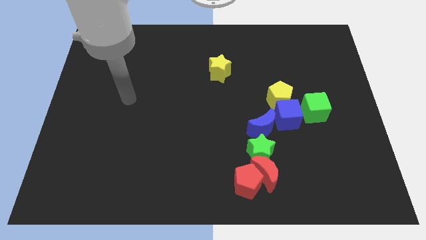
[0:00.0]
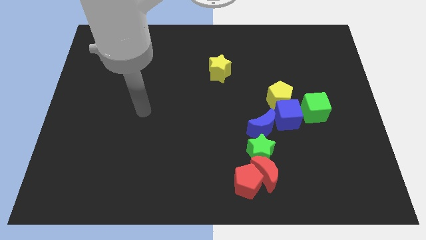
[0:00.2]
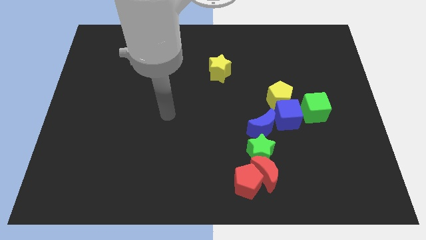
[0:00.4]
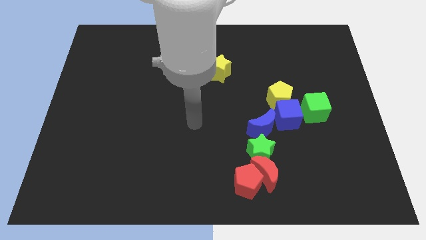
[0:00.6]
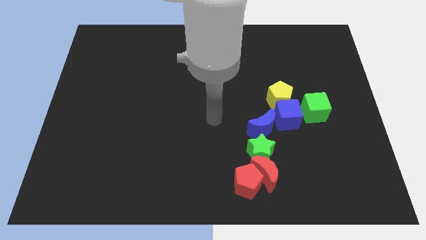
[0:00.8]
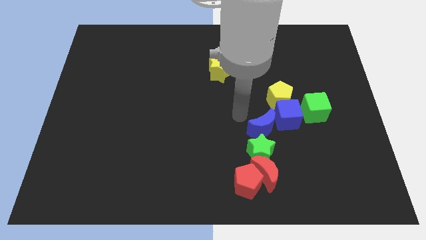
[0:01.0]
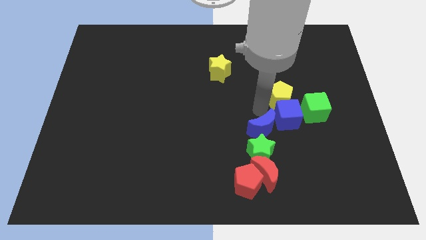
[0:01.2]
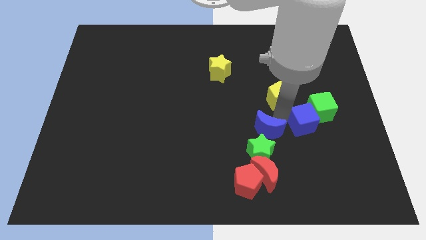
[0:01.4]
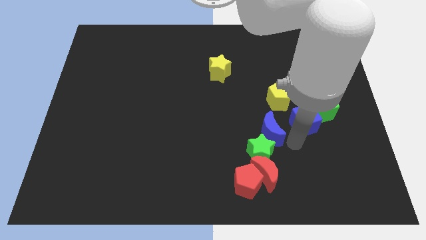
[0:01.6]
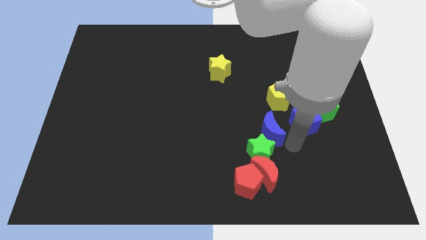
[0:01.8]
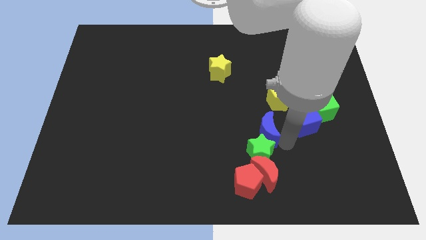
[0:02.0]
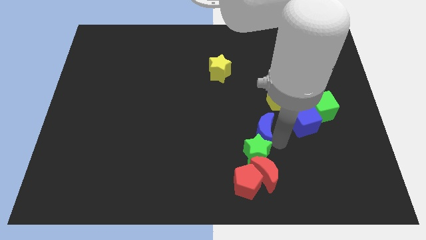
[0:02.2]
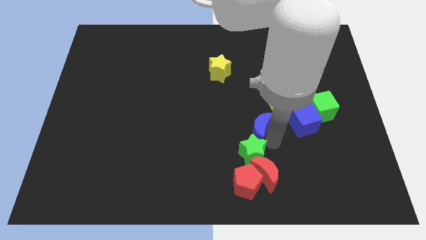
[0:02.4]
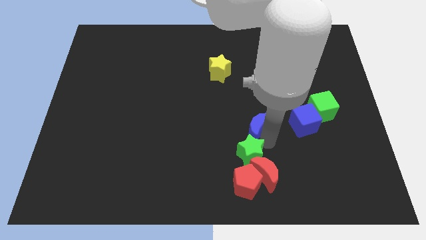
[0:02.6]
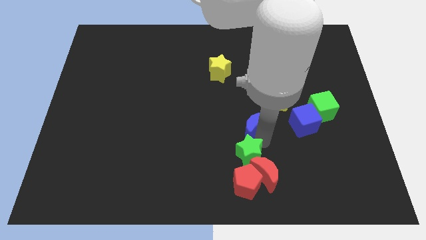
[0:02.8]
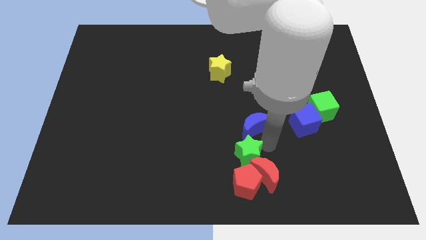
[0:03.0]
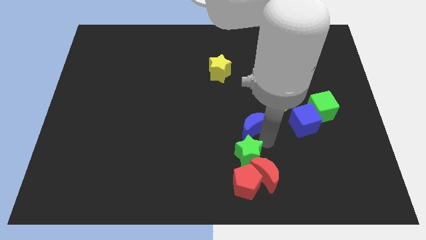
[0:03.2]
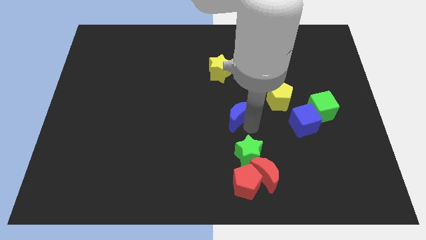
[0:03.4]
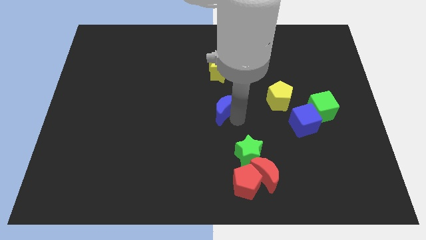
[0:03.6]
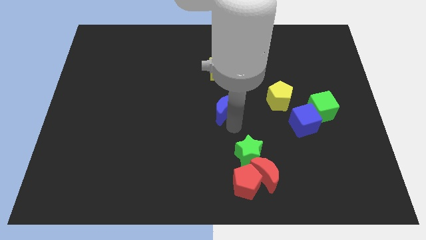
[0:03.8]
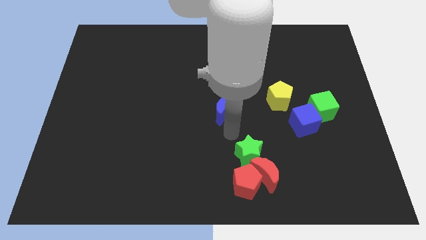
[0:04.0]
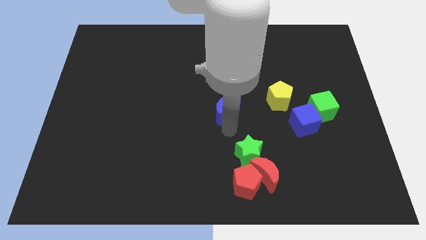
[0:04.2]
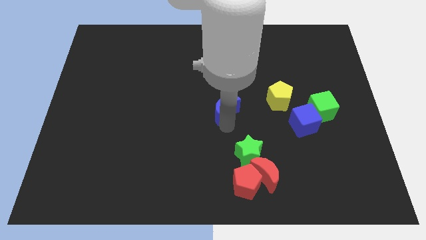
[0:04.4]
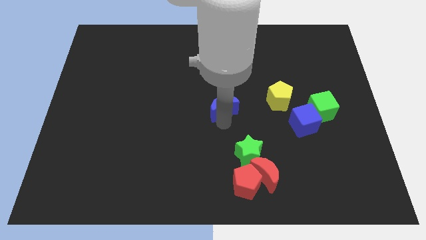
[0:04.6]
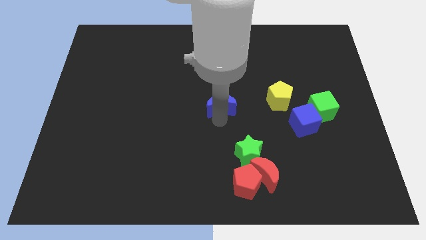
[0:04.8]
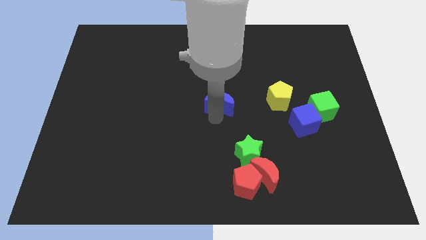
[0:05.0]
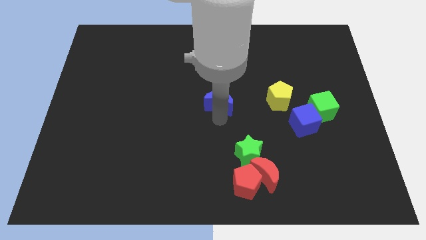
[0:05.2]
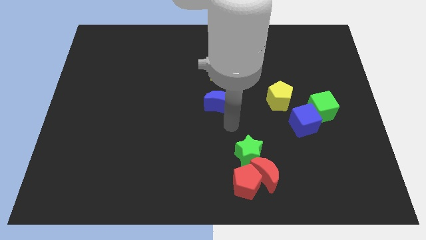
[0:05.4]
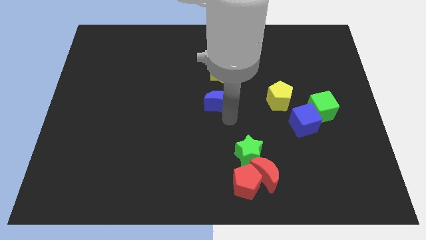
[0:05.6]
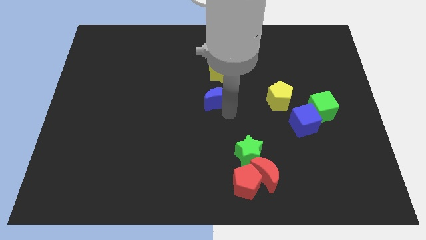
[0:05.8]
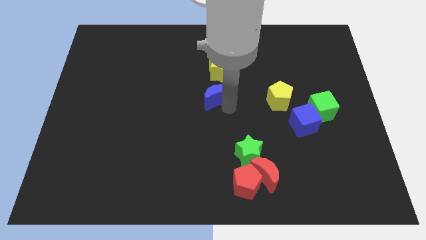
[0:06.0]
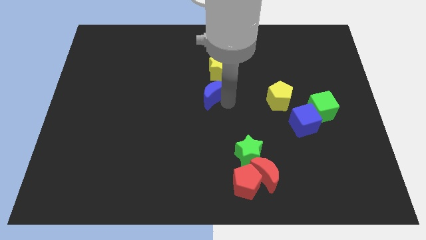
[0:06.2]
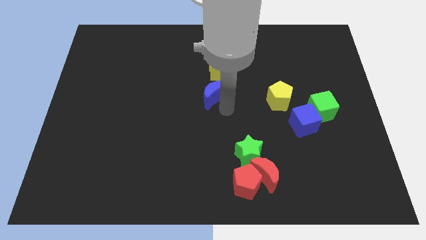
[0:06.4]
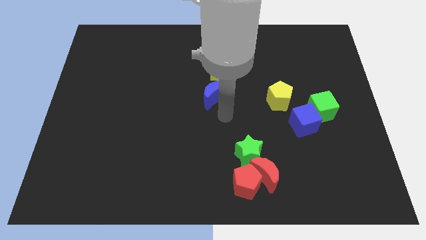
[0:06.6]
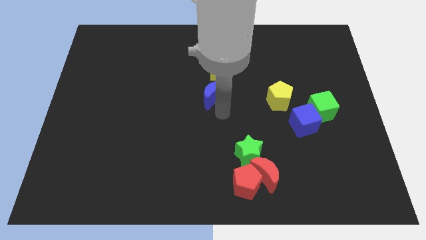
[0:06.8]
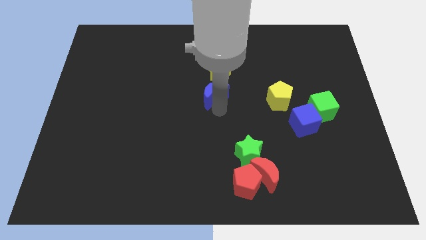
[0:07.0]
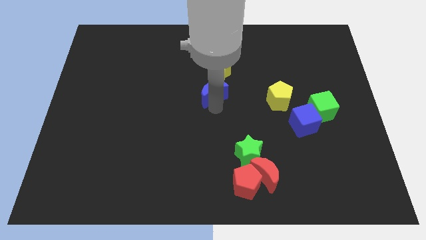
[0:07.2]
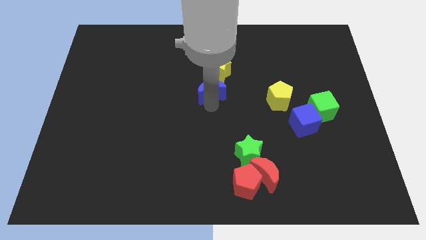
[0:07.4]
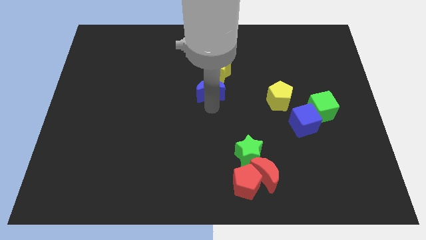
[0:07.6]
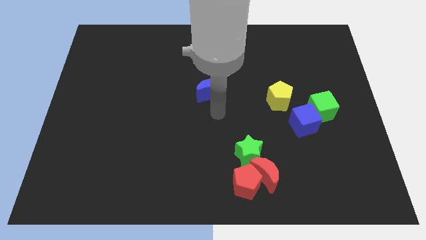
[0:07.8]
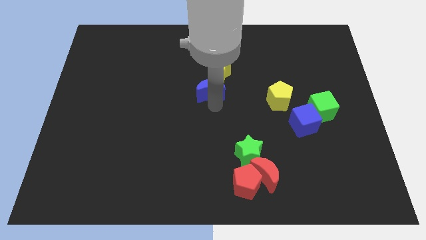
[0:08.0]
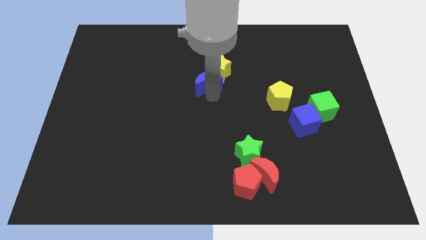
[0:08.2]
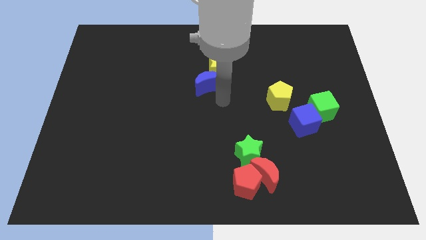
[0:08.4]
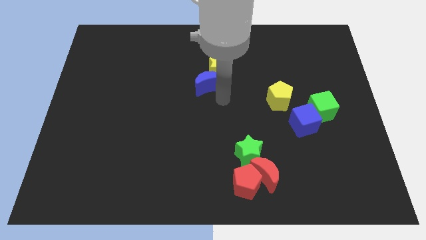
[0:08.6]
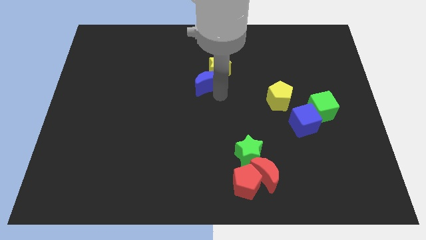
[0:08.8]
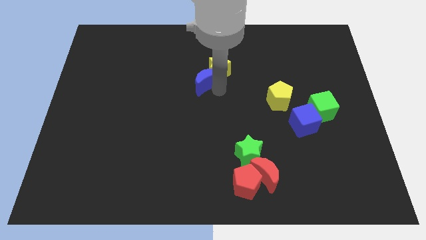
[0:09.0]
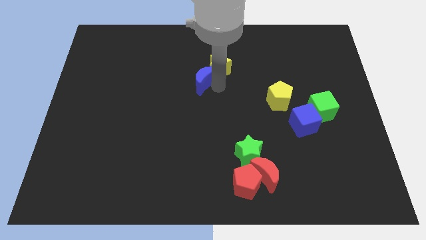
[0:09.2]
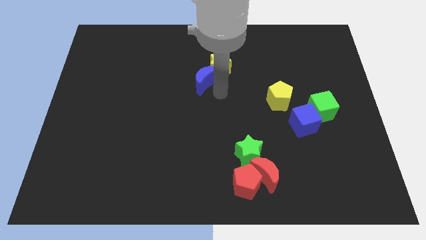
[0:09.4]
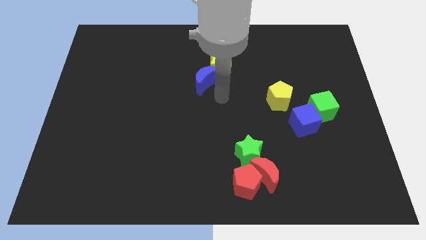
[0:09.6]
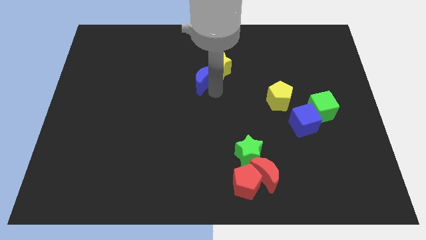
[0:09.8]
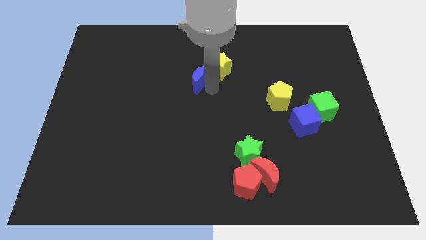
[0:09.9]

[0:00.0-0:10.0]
slide the blue moon upwards and left diagonally

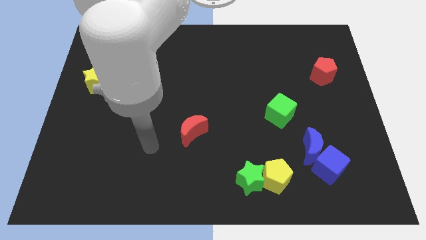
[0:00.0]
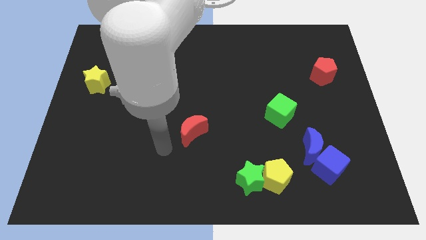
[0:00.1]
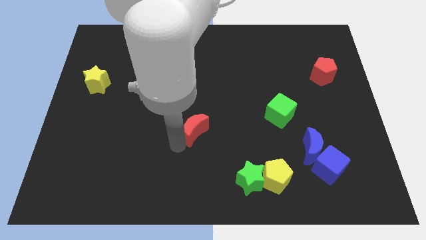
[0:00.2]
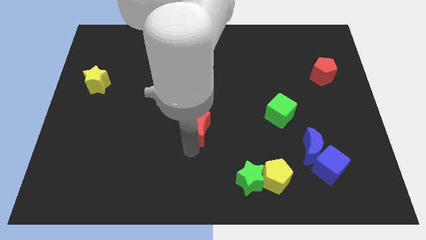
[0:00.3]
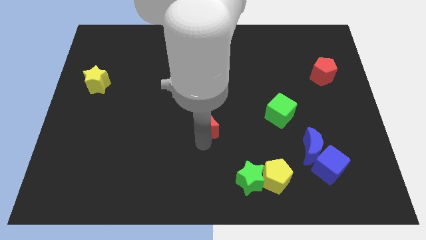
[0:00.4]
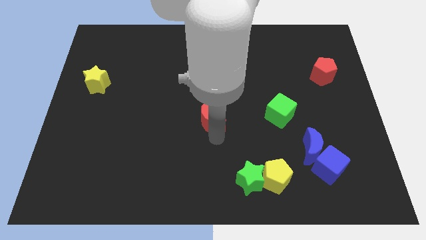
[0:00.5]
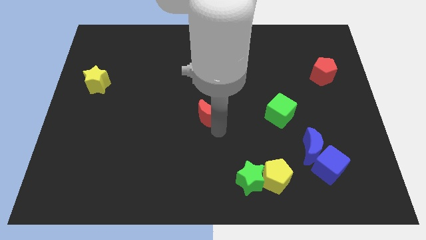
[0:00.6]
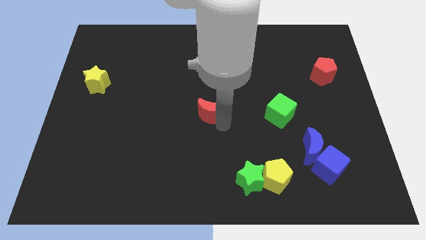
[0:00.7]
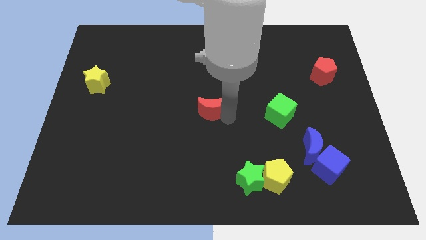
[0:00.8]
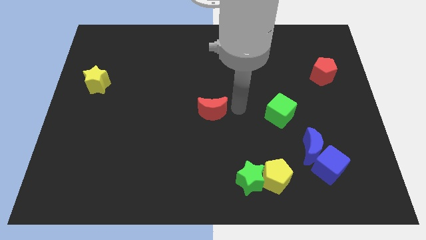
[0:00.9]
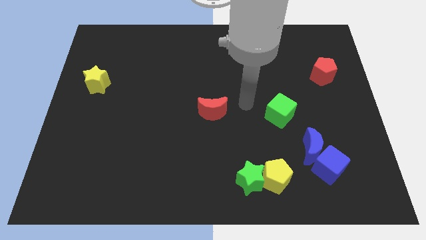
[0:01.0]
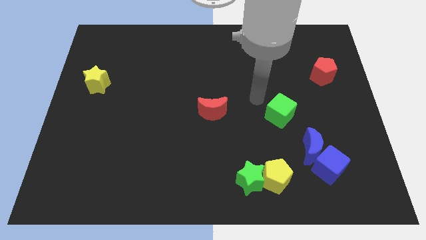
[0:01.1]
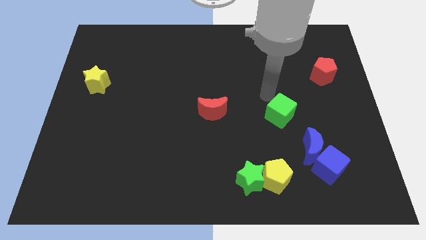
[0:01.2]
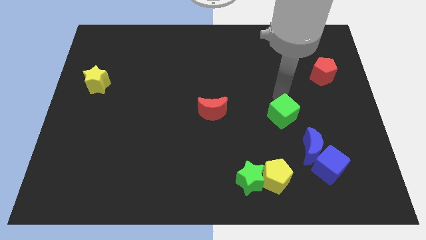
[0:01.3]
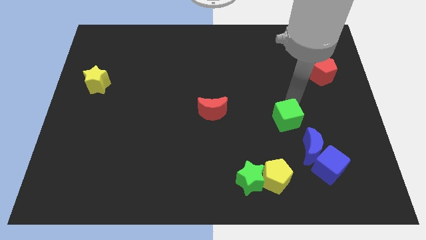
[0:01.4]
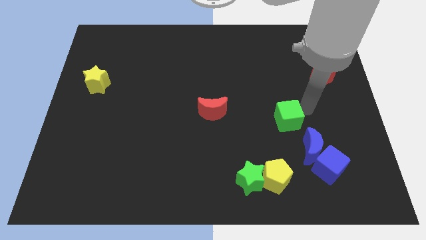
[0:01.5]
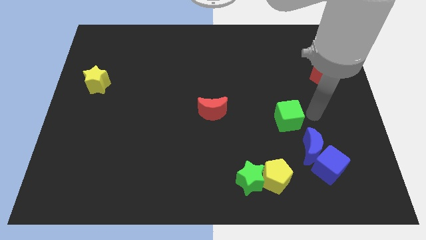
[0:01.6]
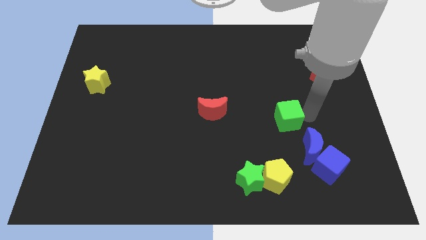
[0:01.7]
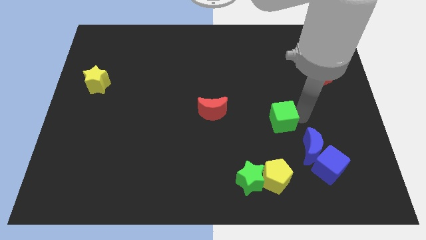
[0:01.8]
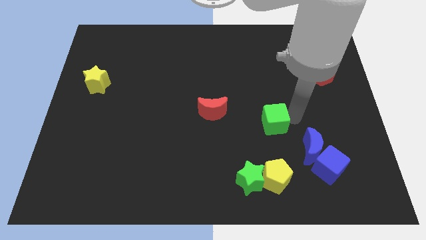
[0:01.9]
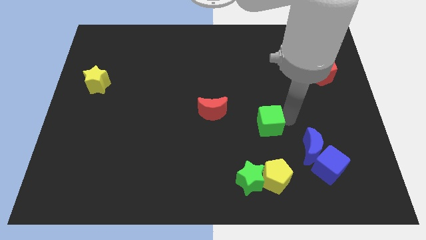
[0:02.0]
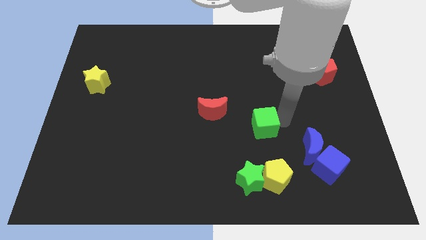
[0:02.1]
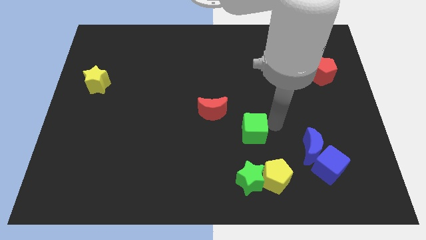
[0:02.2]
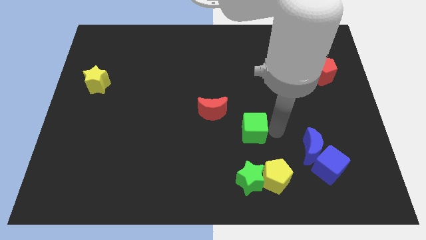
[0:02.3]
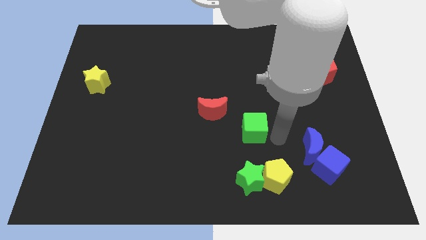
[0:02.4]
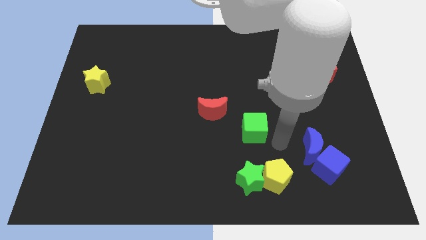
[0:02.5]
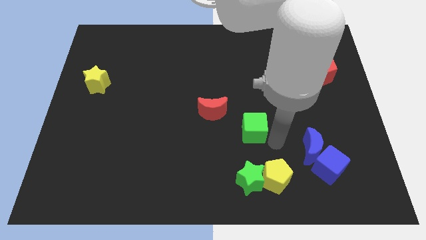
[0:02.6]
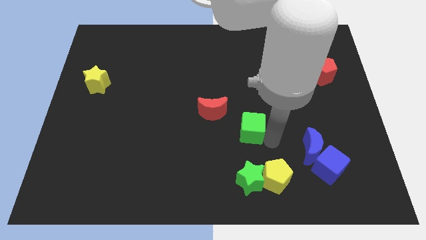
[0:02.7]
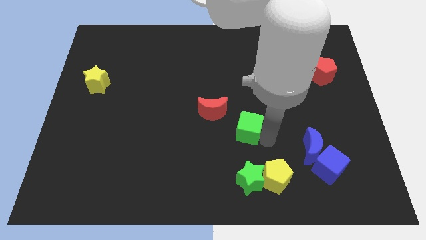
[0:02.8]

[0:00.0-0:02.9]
slightly move the green cube left

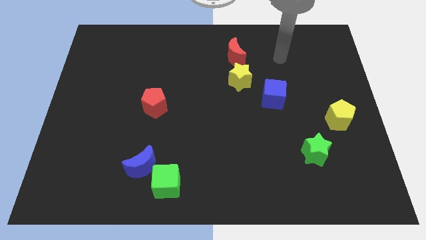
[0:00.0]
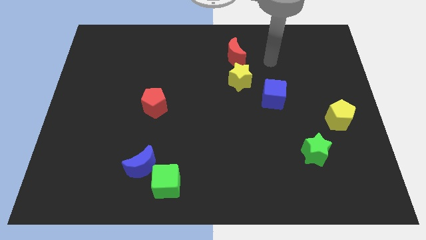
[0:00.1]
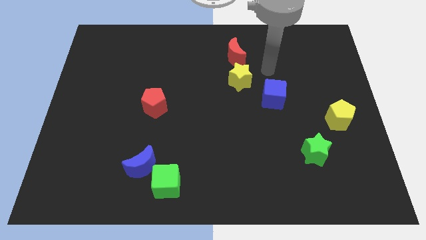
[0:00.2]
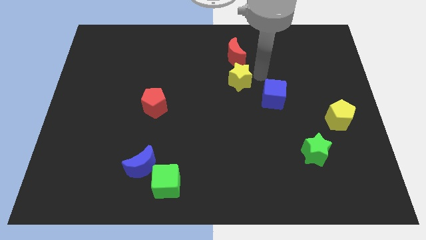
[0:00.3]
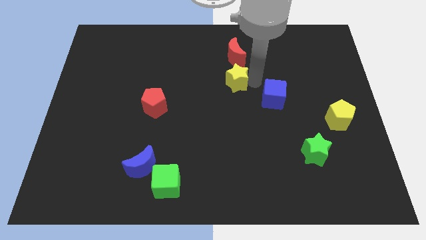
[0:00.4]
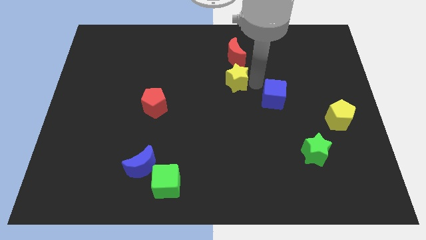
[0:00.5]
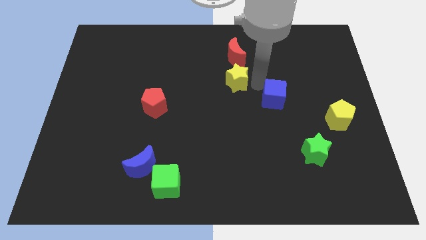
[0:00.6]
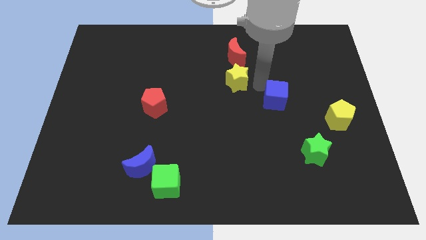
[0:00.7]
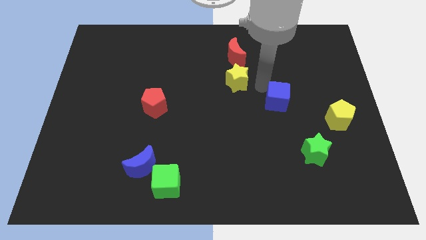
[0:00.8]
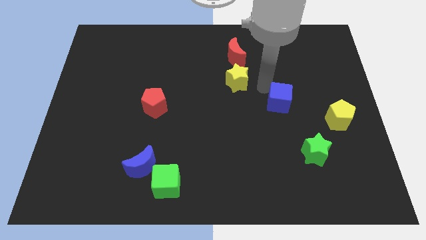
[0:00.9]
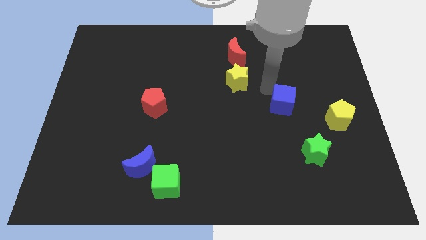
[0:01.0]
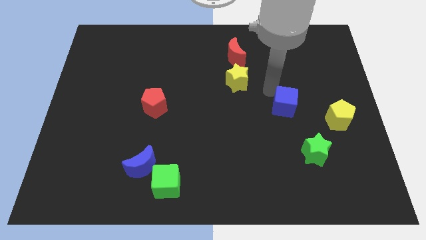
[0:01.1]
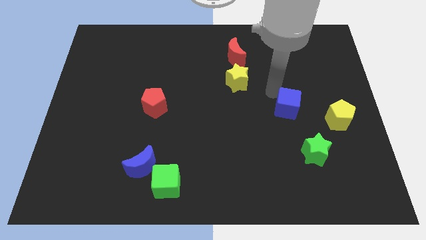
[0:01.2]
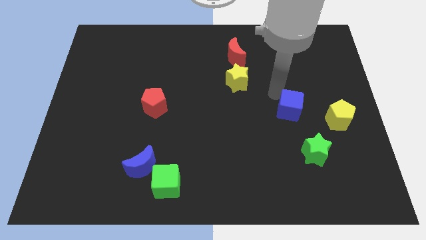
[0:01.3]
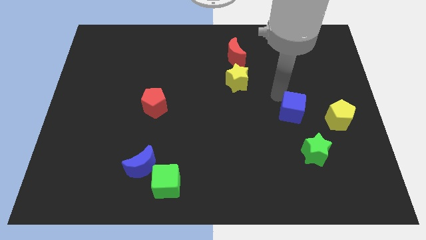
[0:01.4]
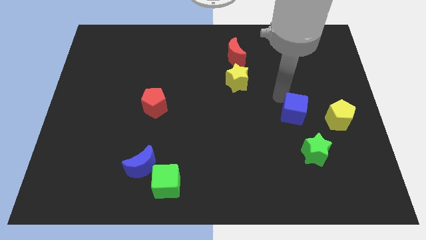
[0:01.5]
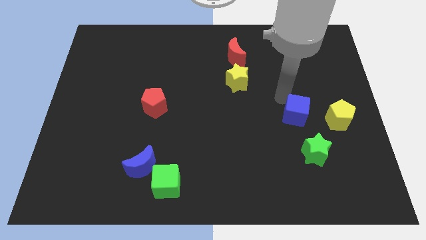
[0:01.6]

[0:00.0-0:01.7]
push the blue cube a little down and right
